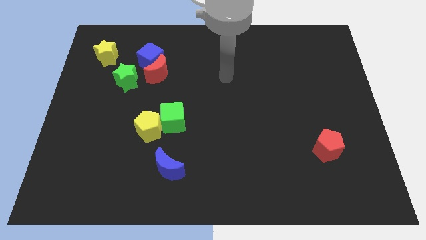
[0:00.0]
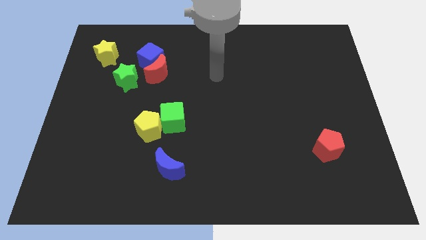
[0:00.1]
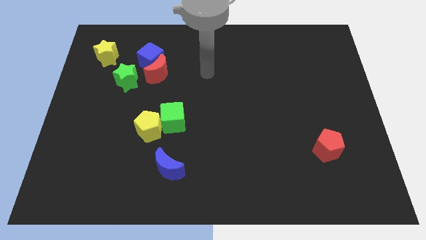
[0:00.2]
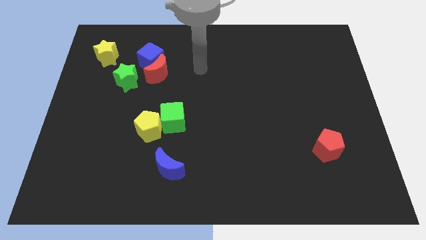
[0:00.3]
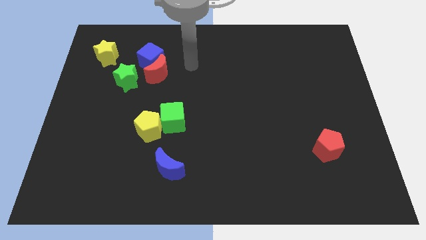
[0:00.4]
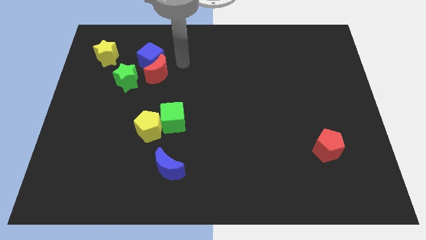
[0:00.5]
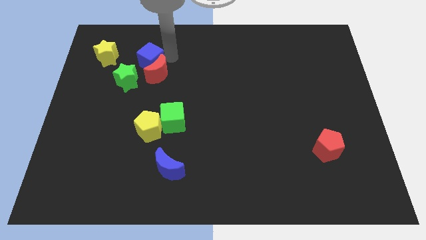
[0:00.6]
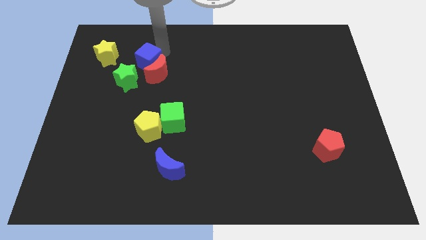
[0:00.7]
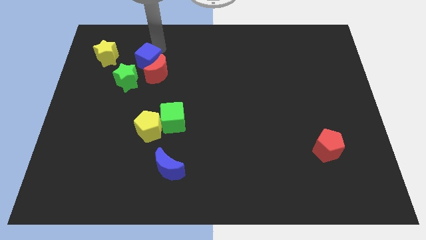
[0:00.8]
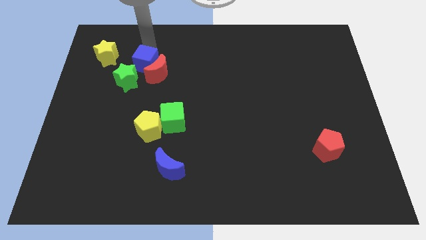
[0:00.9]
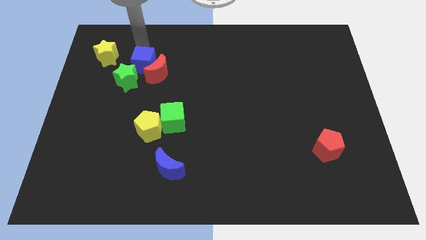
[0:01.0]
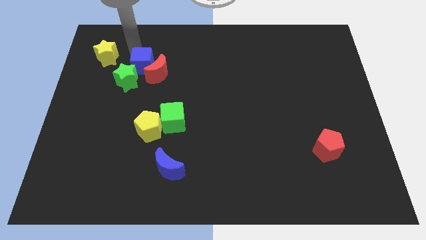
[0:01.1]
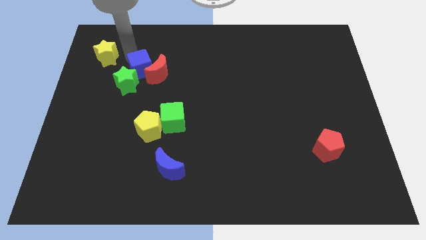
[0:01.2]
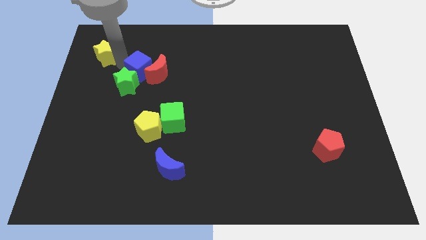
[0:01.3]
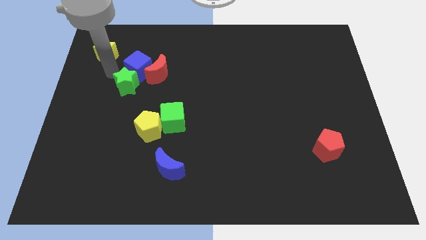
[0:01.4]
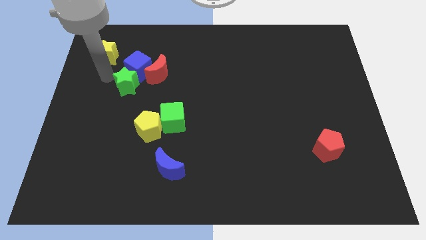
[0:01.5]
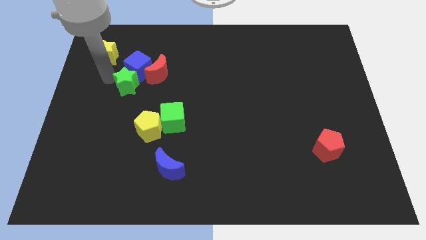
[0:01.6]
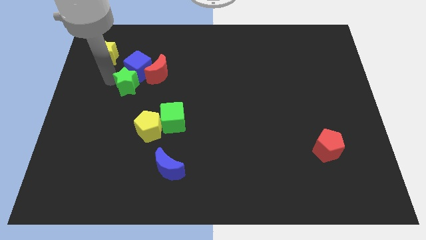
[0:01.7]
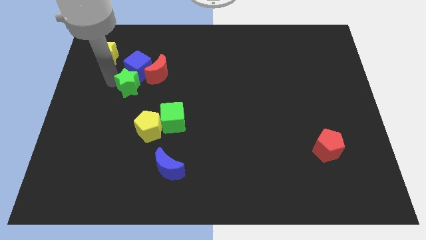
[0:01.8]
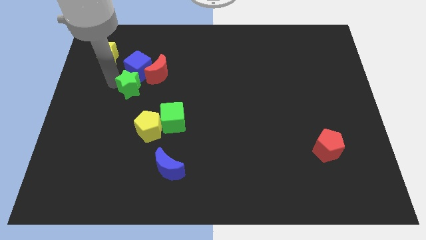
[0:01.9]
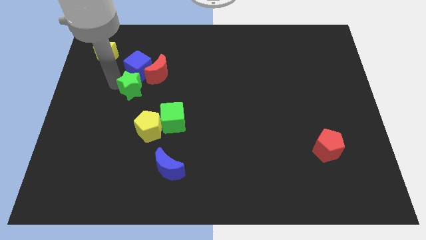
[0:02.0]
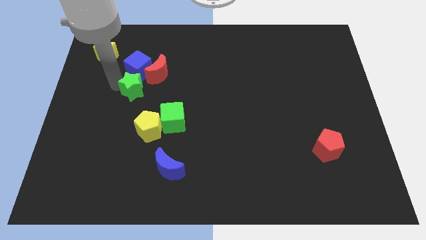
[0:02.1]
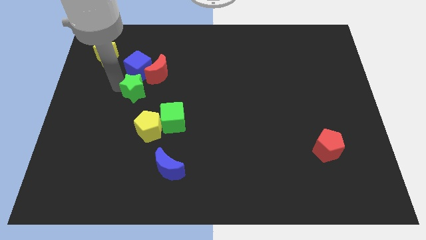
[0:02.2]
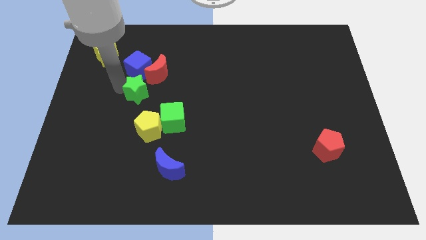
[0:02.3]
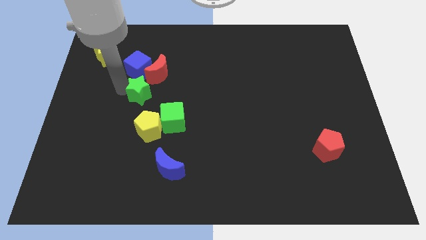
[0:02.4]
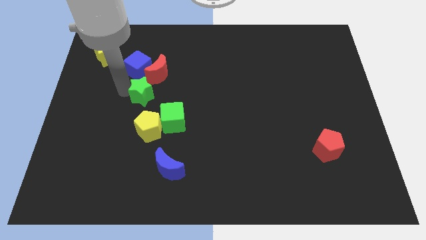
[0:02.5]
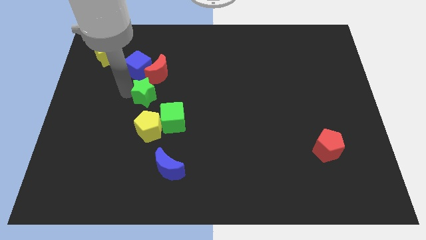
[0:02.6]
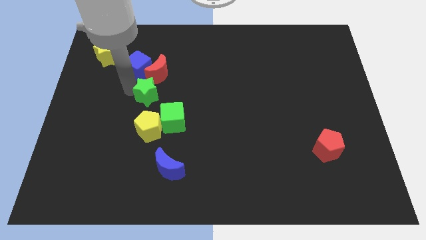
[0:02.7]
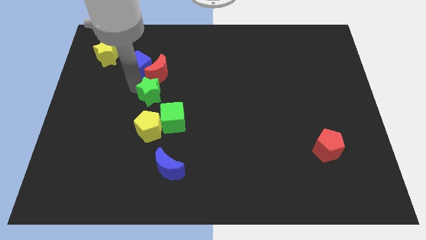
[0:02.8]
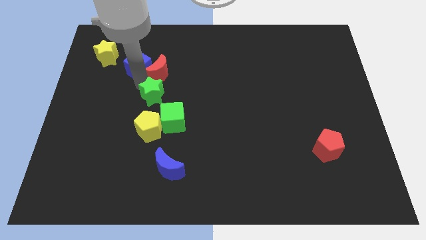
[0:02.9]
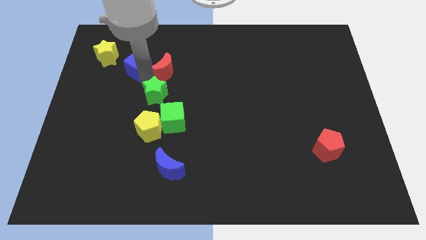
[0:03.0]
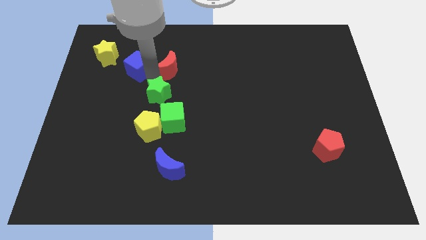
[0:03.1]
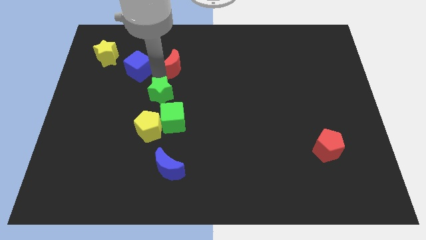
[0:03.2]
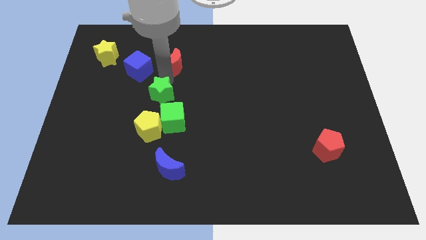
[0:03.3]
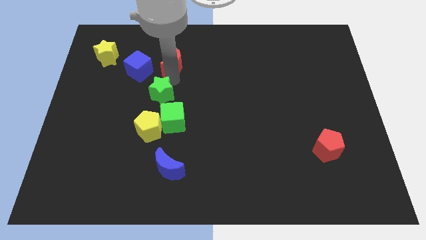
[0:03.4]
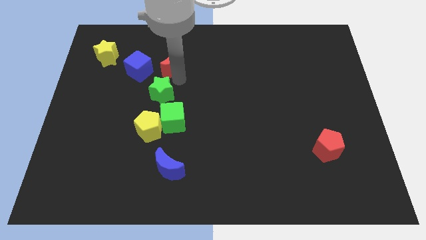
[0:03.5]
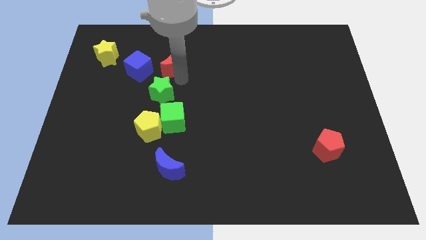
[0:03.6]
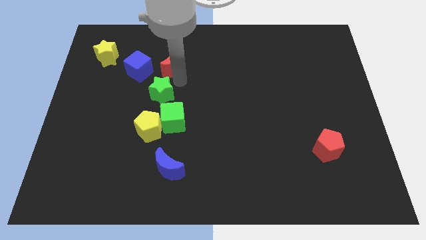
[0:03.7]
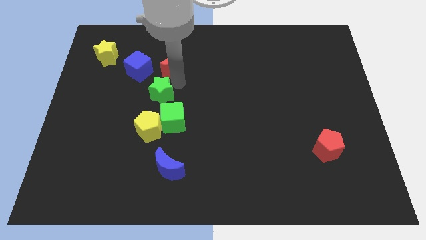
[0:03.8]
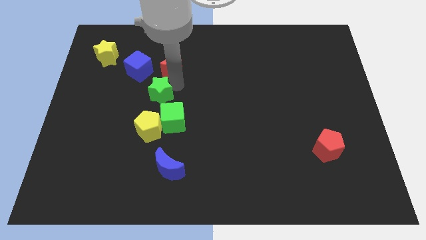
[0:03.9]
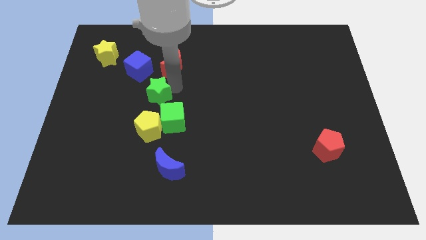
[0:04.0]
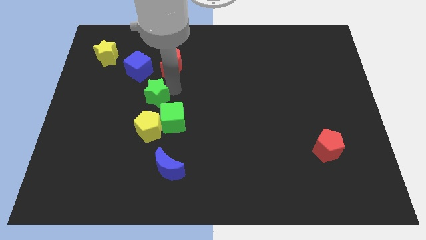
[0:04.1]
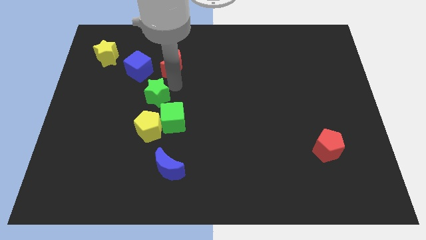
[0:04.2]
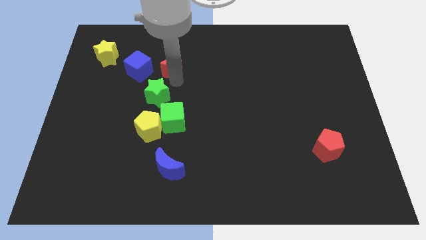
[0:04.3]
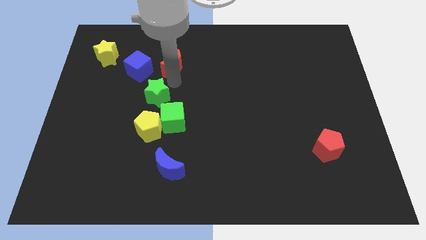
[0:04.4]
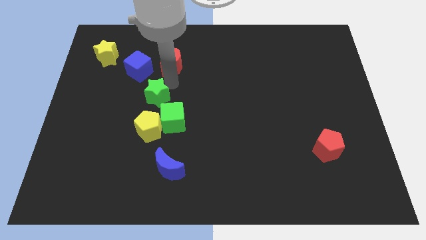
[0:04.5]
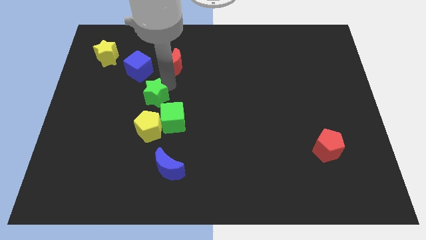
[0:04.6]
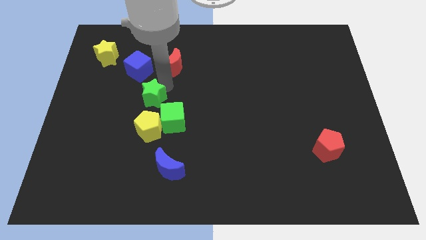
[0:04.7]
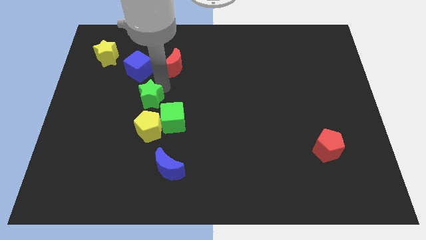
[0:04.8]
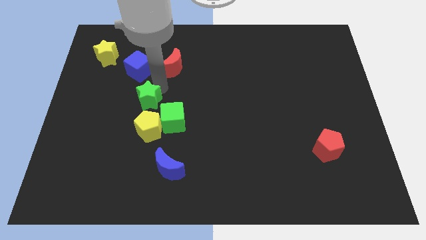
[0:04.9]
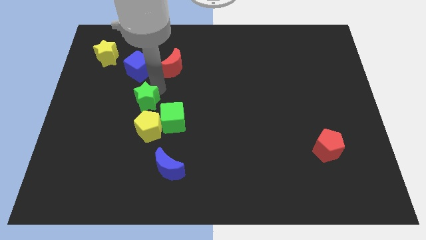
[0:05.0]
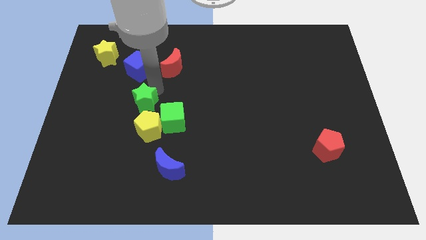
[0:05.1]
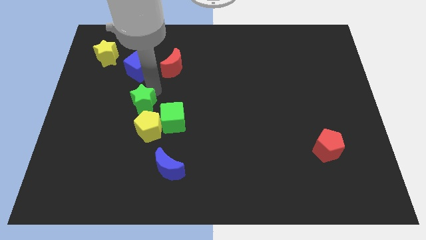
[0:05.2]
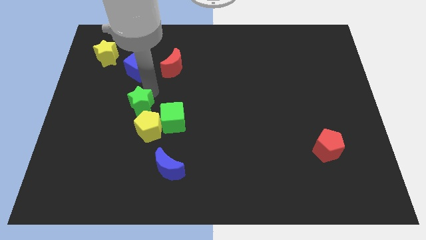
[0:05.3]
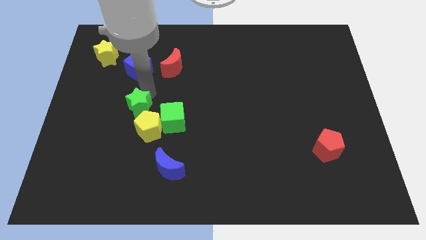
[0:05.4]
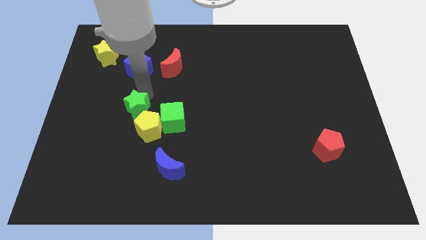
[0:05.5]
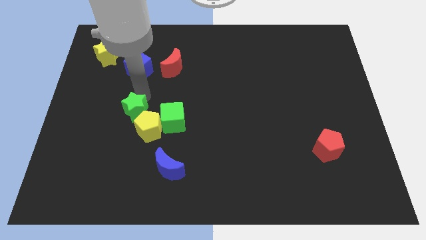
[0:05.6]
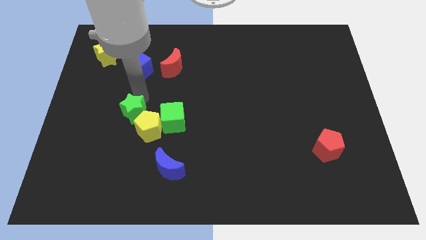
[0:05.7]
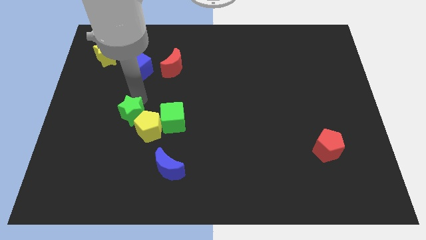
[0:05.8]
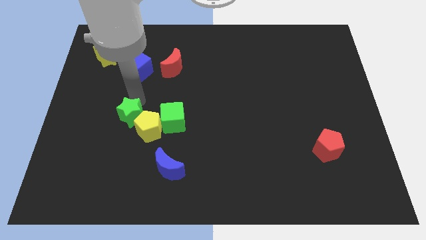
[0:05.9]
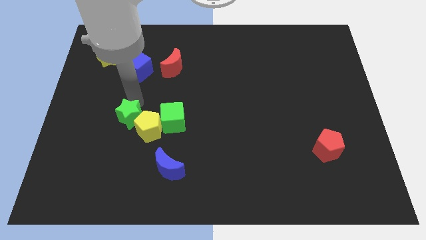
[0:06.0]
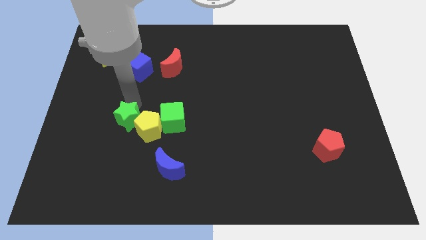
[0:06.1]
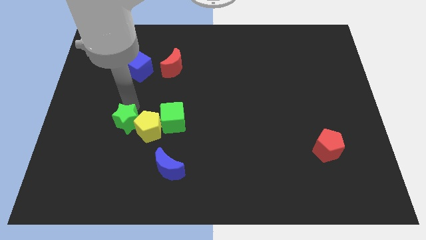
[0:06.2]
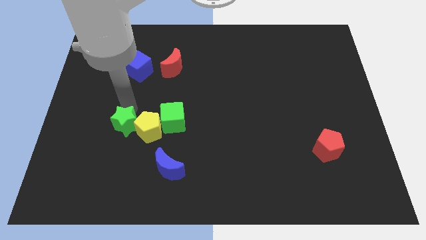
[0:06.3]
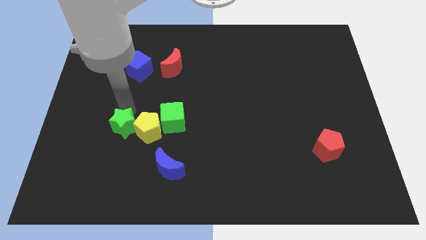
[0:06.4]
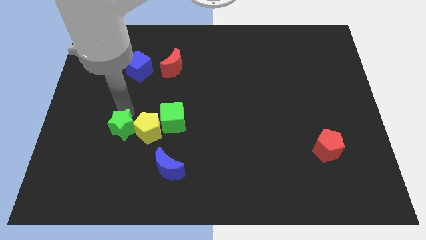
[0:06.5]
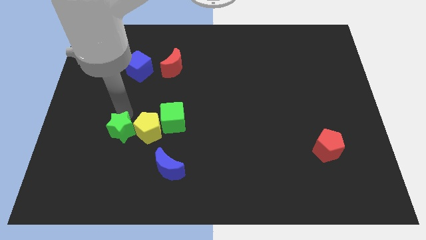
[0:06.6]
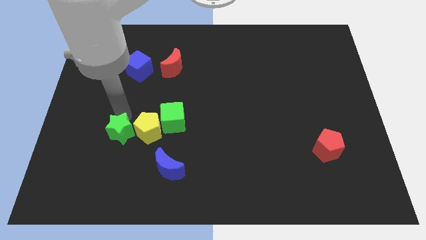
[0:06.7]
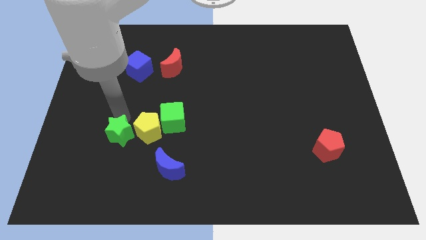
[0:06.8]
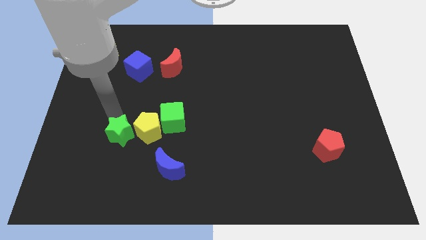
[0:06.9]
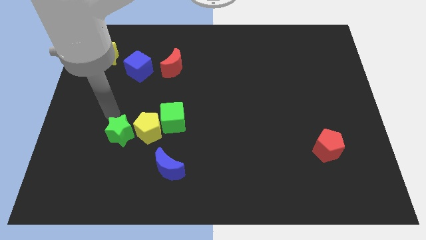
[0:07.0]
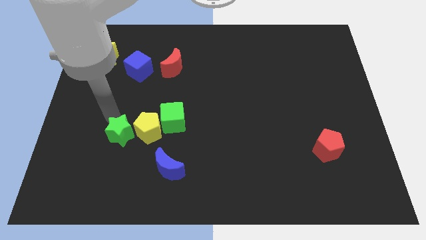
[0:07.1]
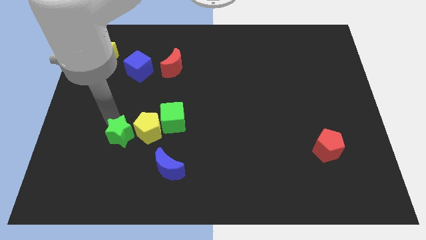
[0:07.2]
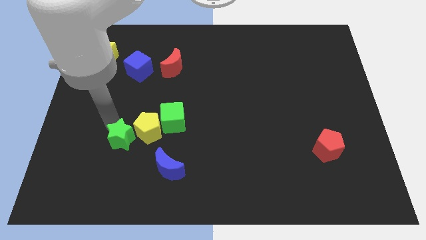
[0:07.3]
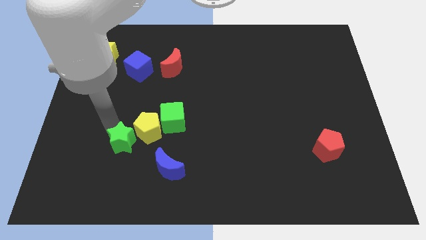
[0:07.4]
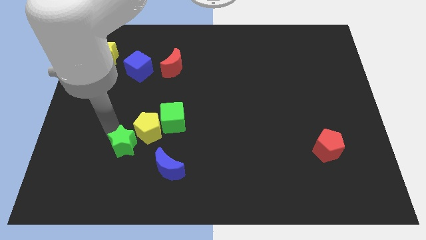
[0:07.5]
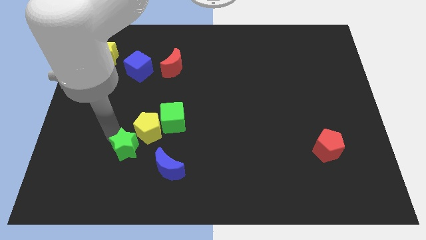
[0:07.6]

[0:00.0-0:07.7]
put the green star to the bottom side of the yellow pentagon
